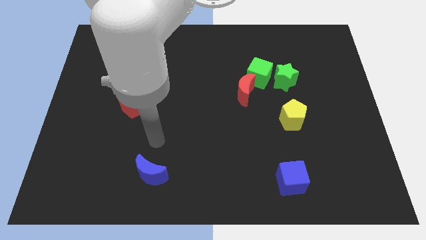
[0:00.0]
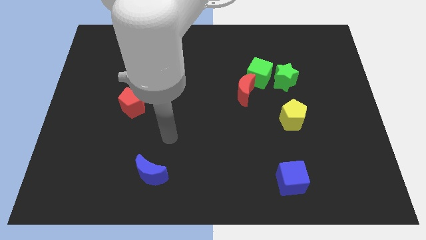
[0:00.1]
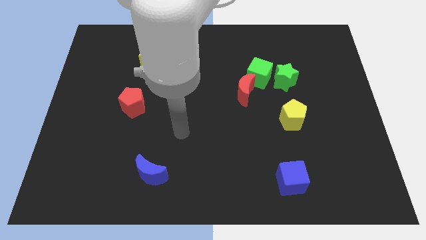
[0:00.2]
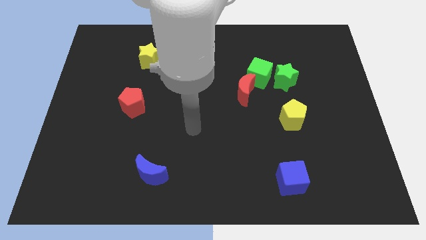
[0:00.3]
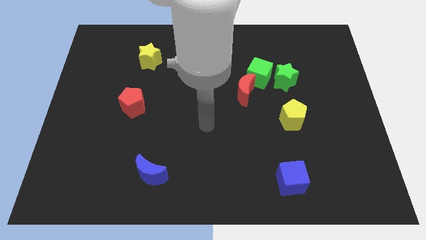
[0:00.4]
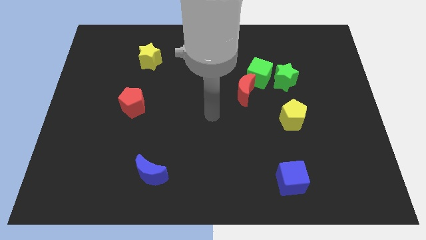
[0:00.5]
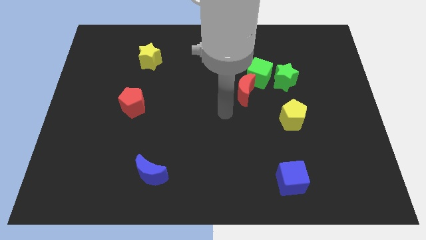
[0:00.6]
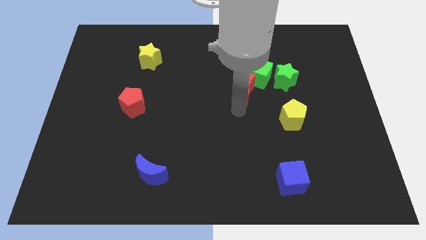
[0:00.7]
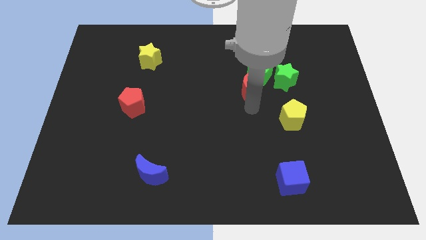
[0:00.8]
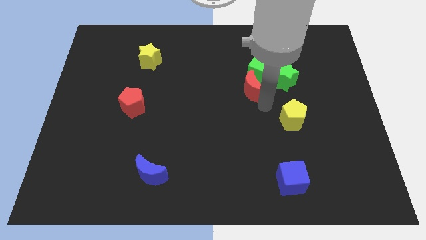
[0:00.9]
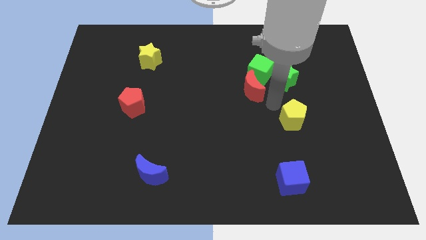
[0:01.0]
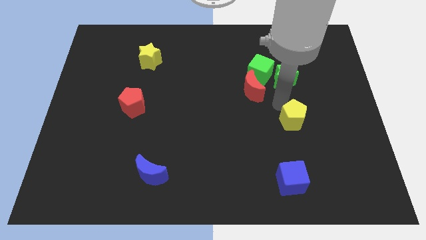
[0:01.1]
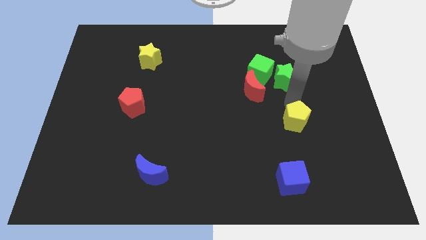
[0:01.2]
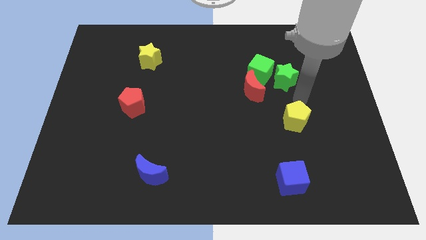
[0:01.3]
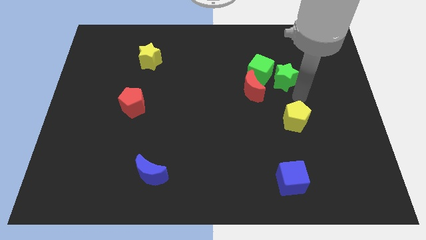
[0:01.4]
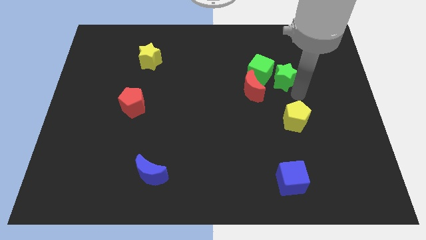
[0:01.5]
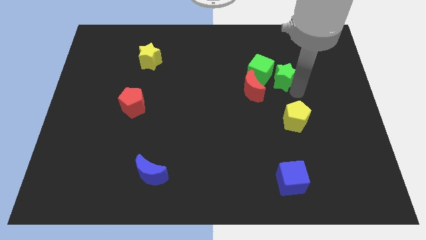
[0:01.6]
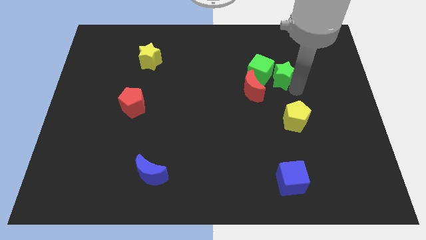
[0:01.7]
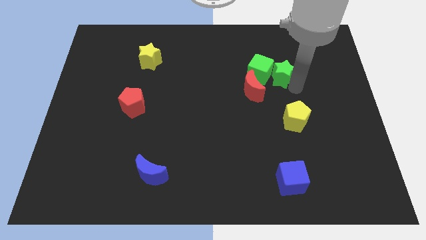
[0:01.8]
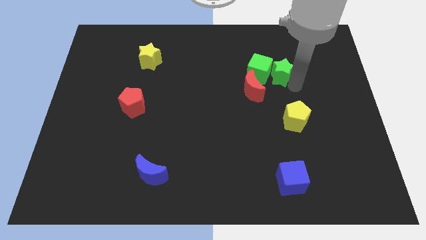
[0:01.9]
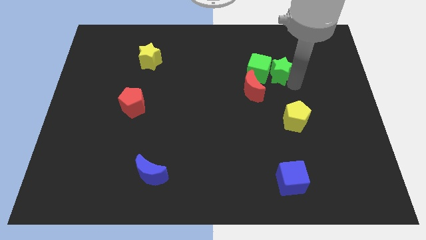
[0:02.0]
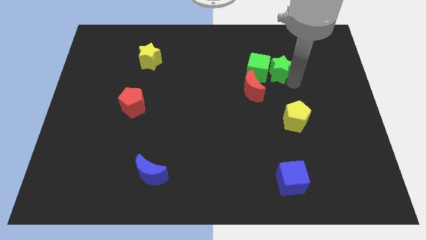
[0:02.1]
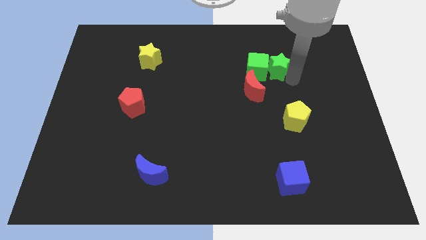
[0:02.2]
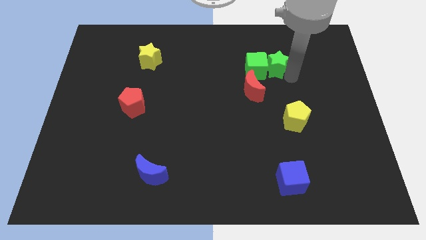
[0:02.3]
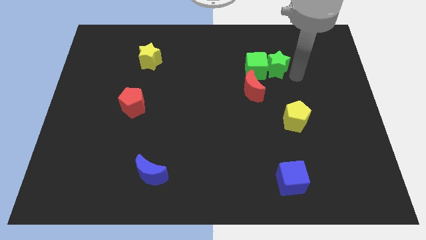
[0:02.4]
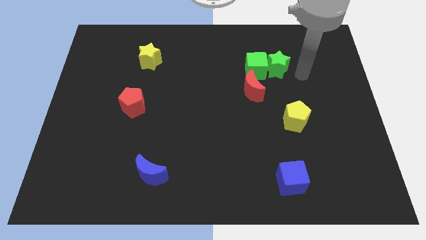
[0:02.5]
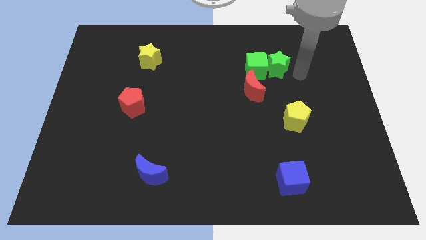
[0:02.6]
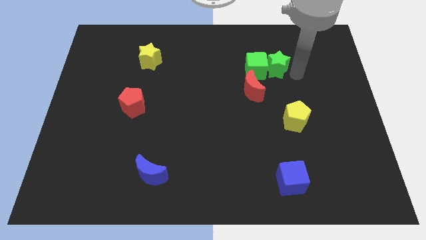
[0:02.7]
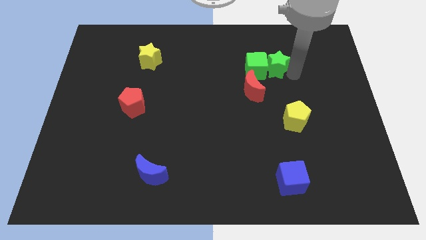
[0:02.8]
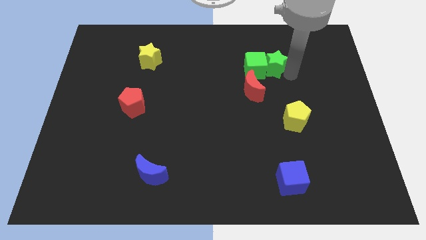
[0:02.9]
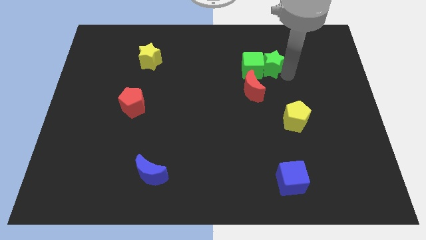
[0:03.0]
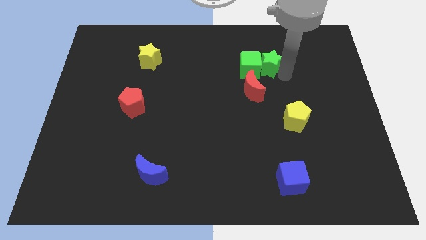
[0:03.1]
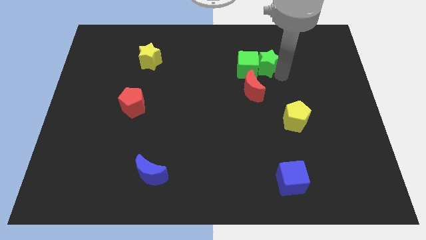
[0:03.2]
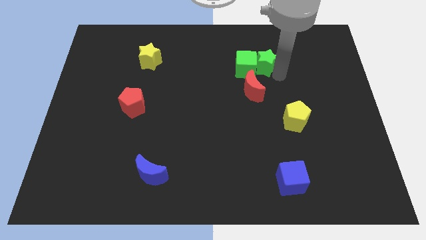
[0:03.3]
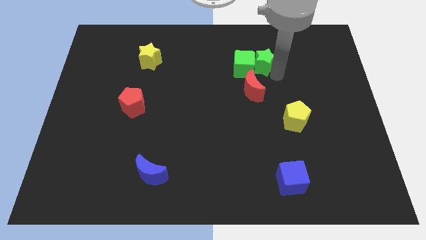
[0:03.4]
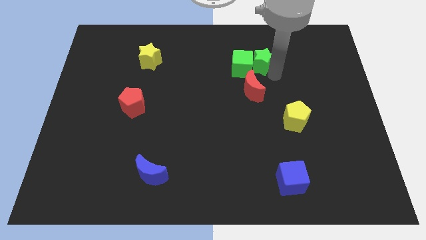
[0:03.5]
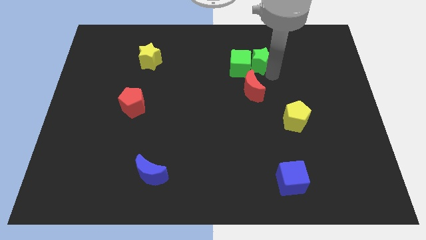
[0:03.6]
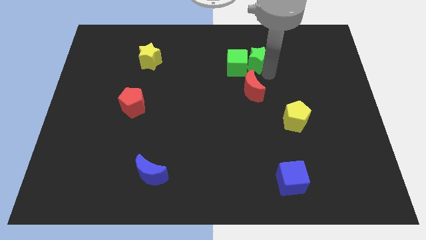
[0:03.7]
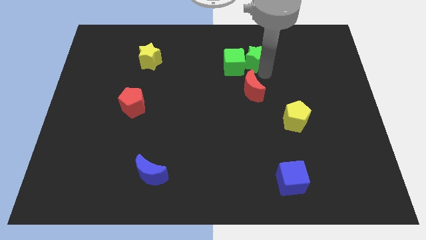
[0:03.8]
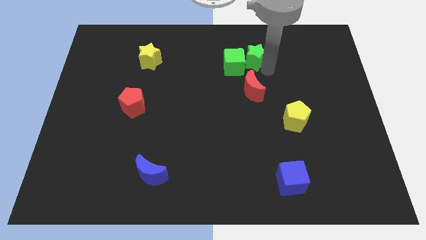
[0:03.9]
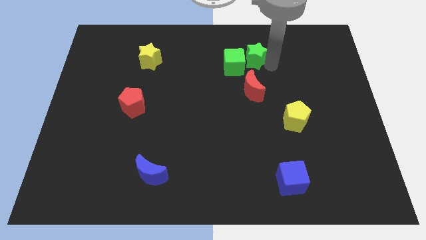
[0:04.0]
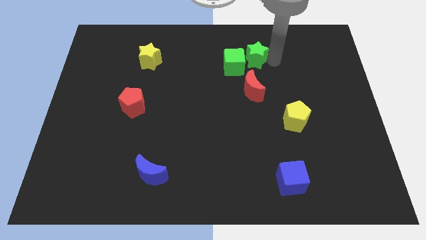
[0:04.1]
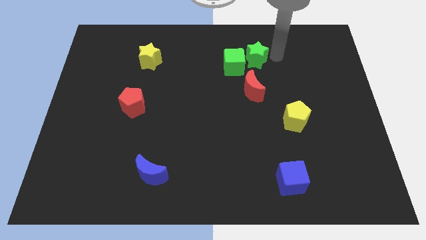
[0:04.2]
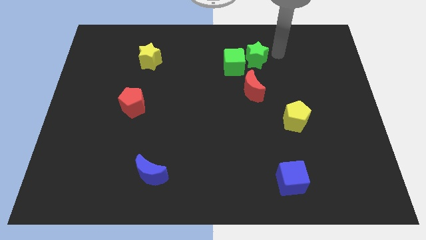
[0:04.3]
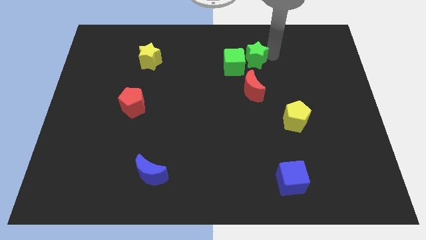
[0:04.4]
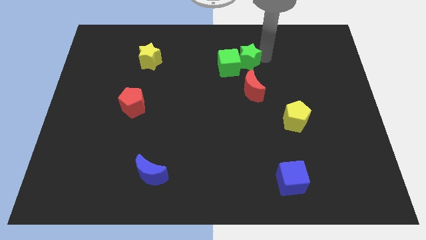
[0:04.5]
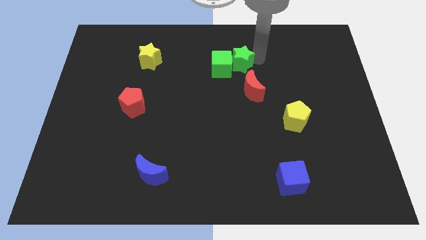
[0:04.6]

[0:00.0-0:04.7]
slide the green star slightly left

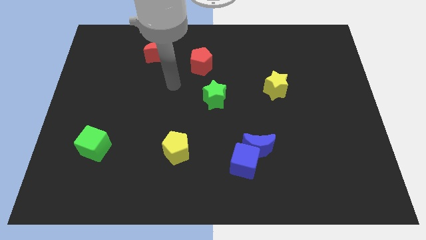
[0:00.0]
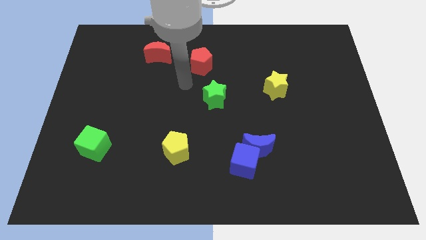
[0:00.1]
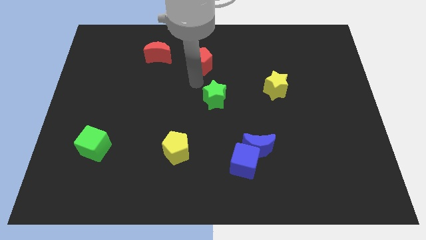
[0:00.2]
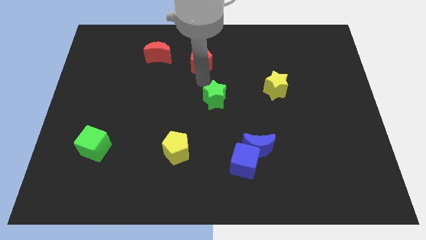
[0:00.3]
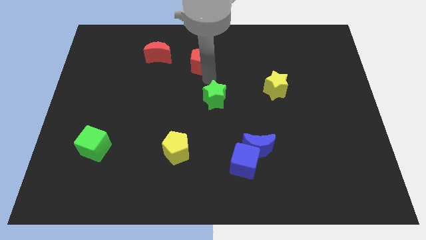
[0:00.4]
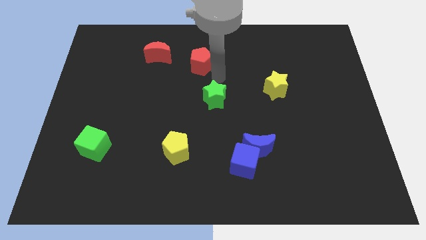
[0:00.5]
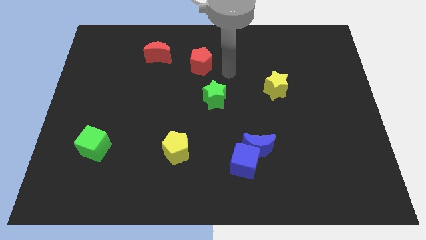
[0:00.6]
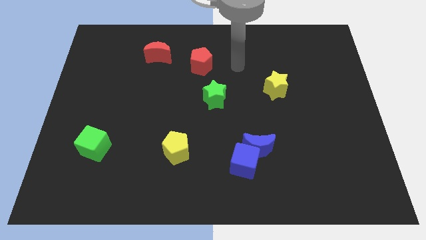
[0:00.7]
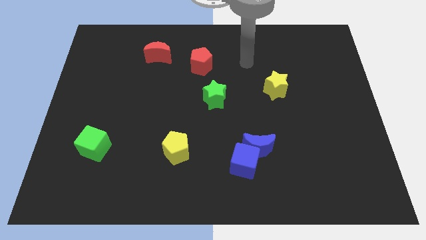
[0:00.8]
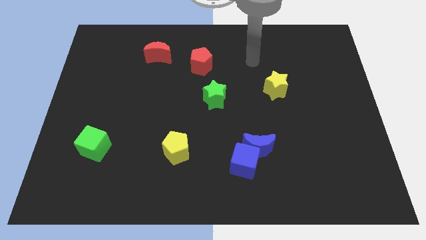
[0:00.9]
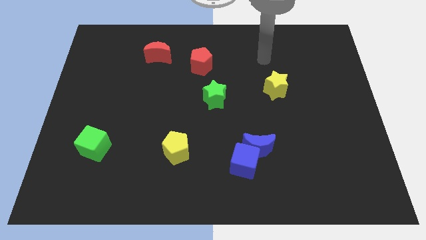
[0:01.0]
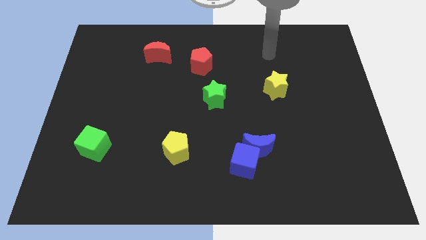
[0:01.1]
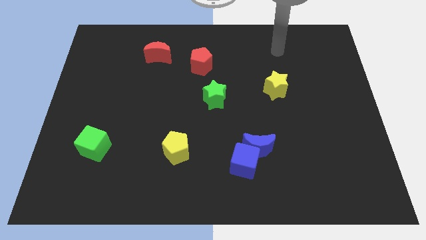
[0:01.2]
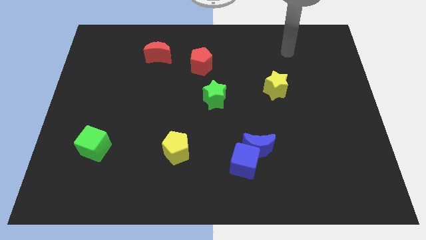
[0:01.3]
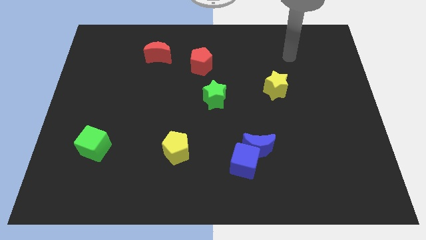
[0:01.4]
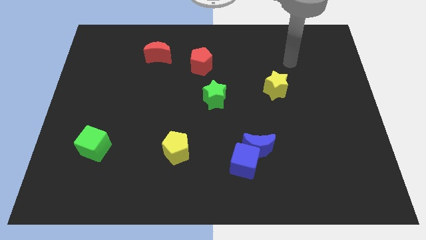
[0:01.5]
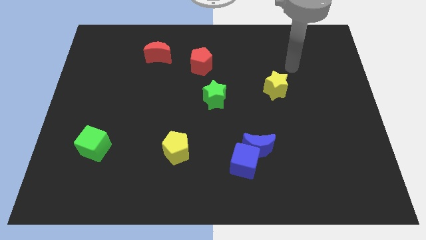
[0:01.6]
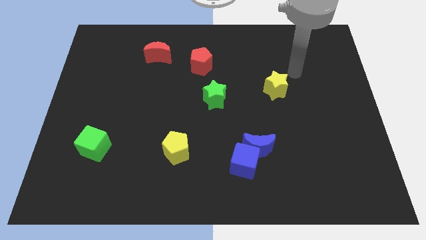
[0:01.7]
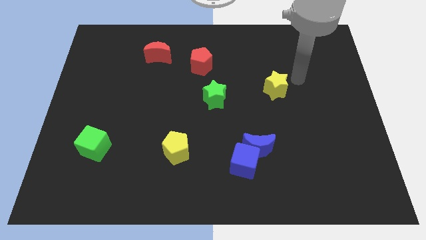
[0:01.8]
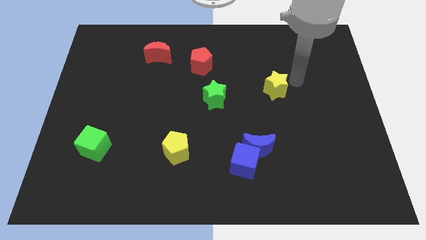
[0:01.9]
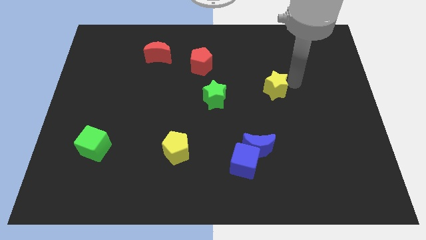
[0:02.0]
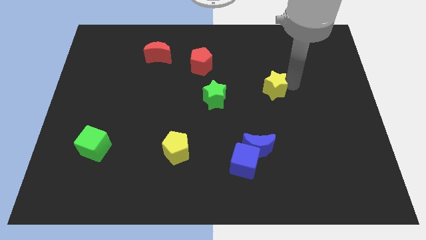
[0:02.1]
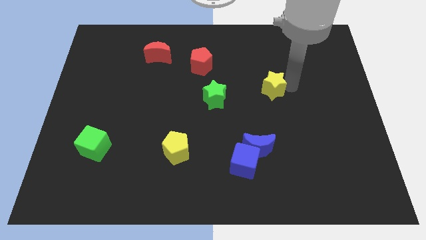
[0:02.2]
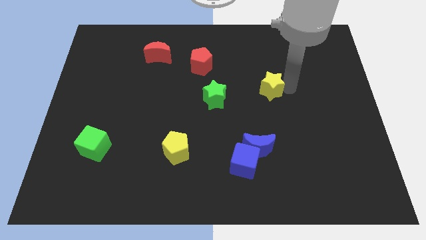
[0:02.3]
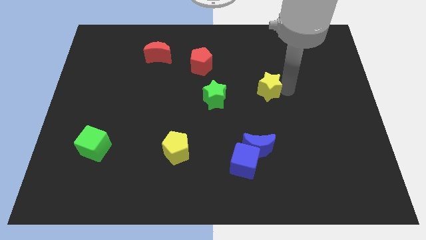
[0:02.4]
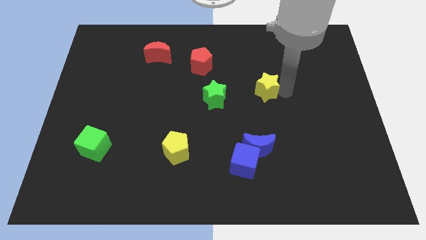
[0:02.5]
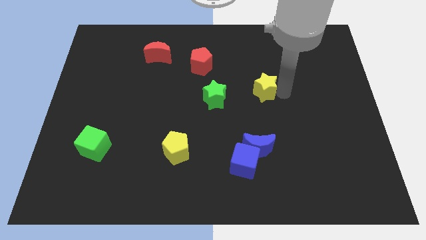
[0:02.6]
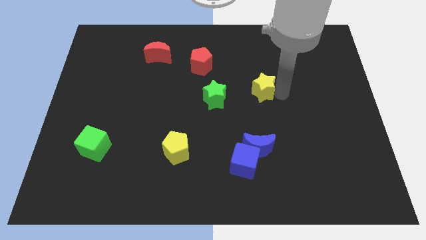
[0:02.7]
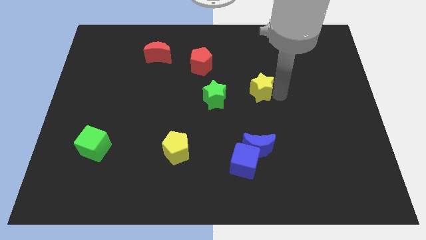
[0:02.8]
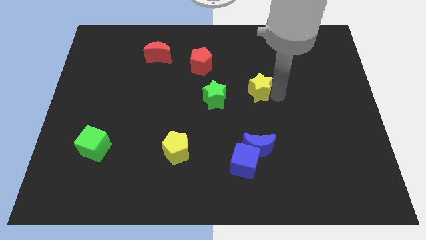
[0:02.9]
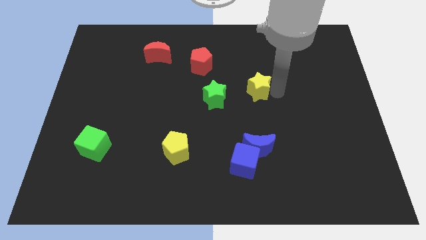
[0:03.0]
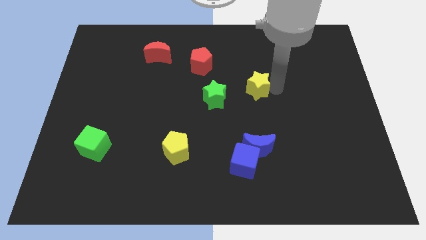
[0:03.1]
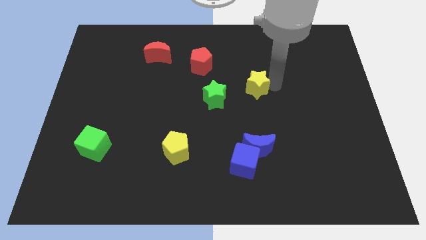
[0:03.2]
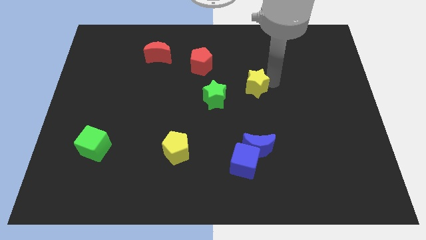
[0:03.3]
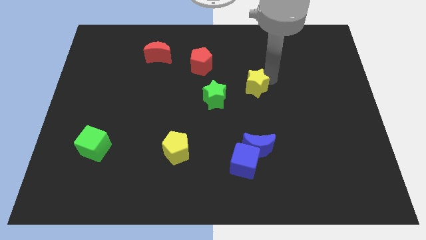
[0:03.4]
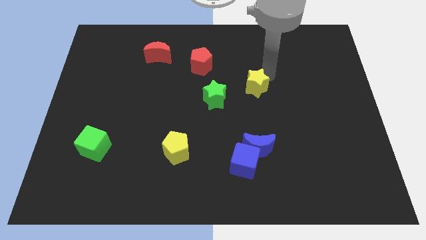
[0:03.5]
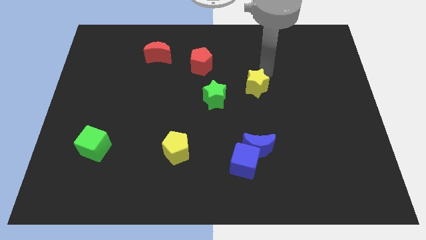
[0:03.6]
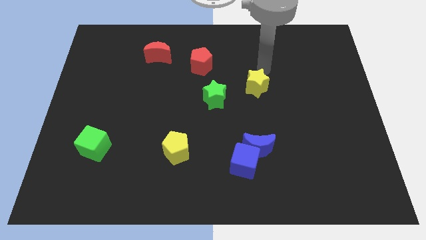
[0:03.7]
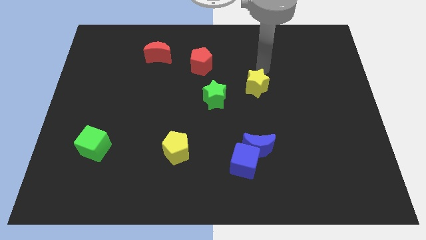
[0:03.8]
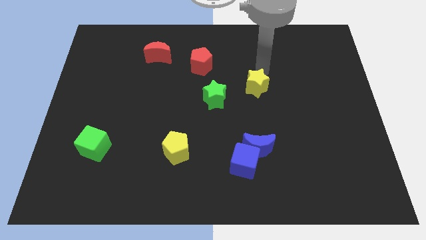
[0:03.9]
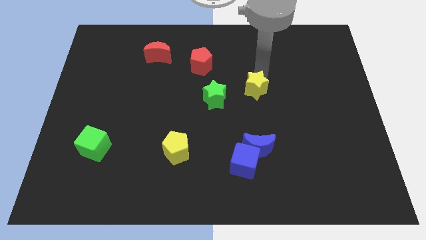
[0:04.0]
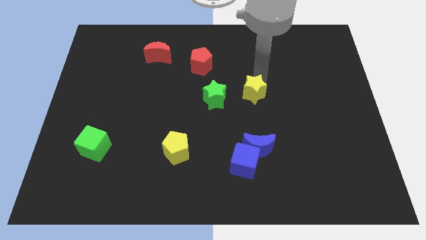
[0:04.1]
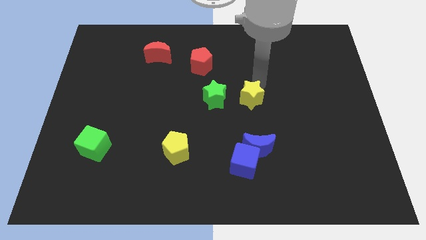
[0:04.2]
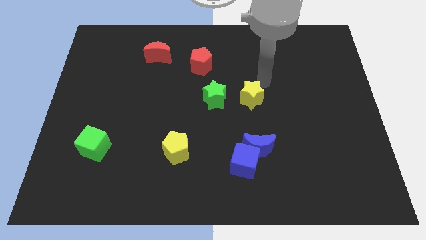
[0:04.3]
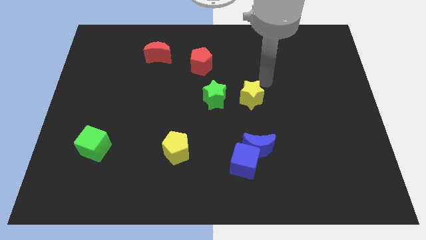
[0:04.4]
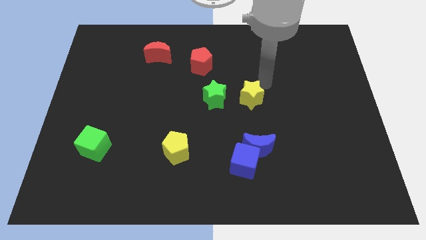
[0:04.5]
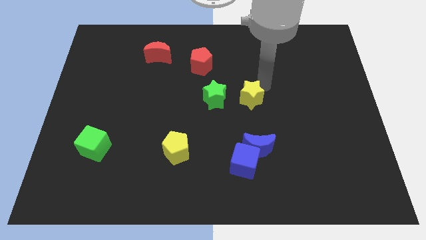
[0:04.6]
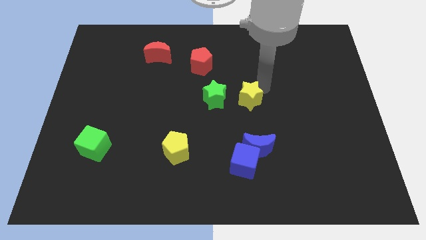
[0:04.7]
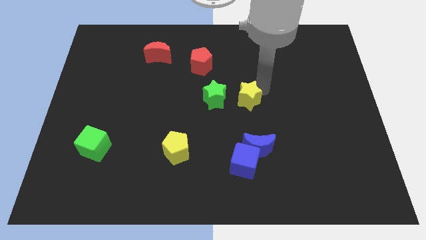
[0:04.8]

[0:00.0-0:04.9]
push the yellow star downwards and left diagonally a little
